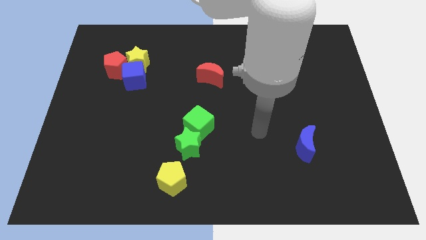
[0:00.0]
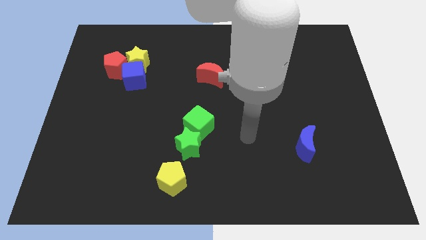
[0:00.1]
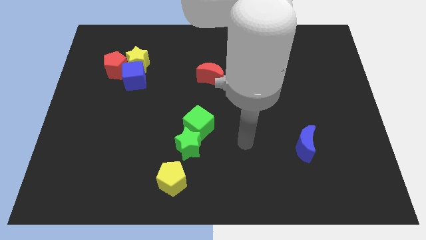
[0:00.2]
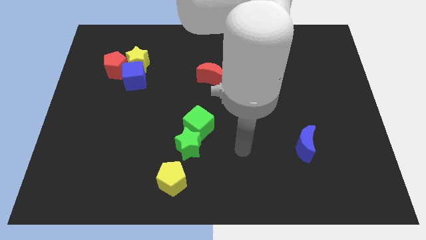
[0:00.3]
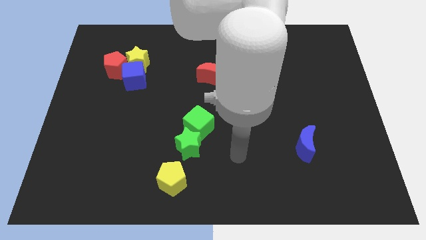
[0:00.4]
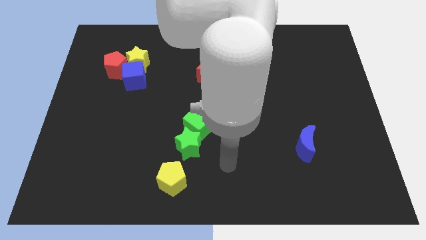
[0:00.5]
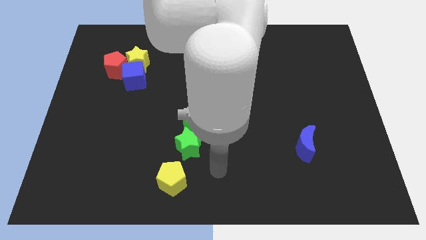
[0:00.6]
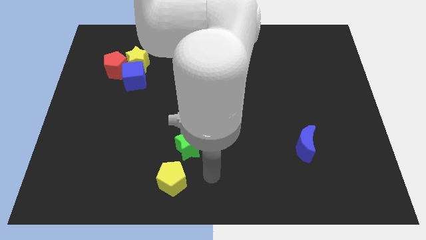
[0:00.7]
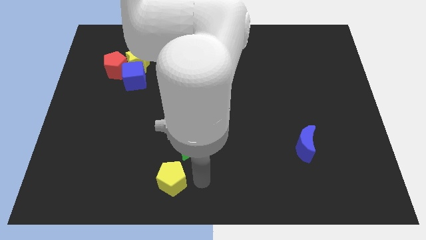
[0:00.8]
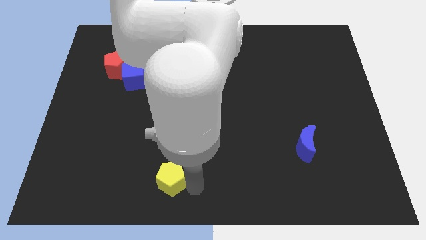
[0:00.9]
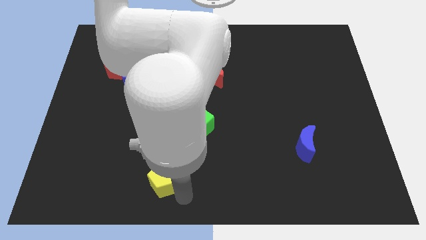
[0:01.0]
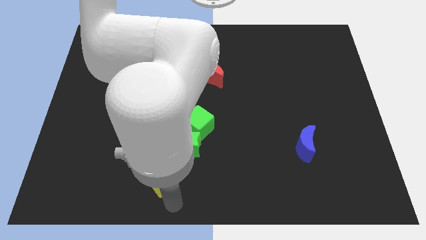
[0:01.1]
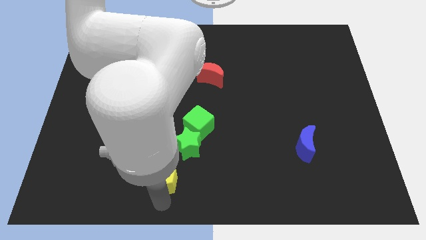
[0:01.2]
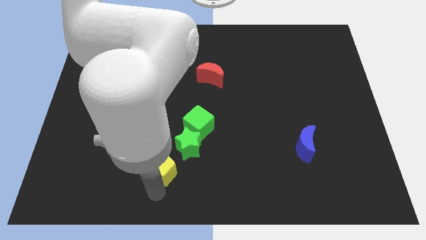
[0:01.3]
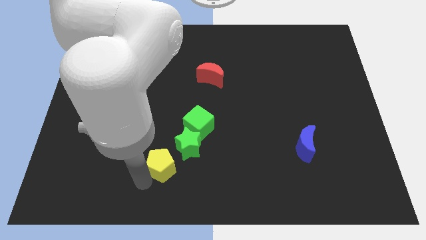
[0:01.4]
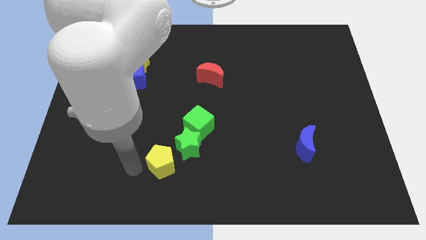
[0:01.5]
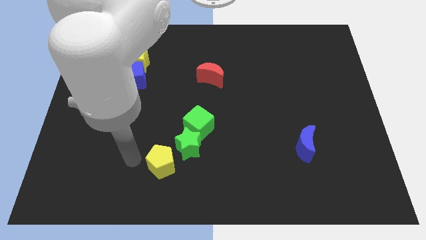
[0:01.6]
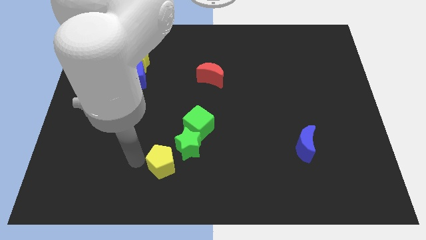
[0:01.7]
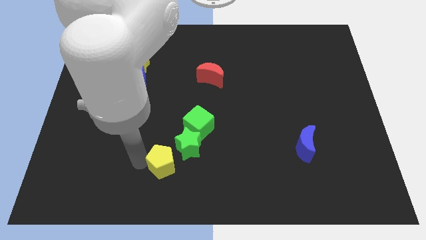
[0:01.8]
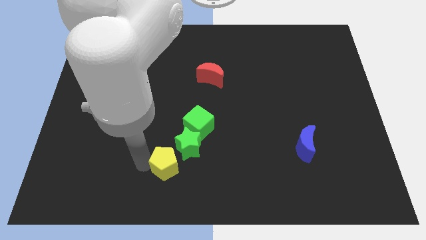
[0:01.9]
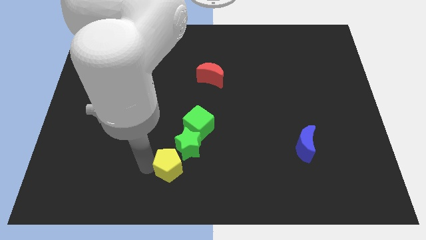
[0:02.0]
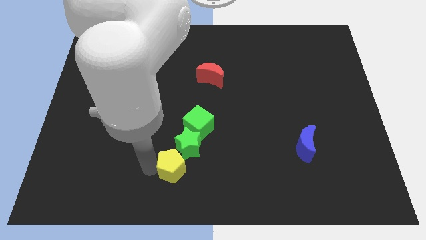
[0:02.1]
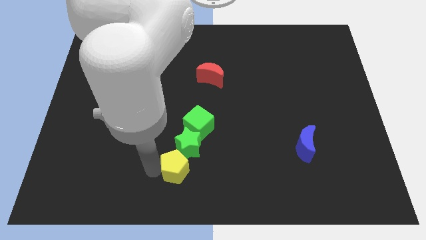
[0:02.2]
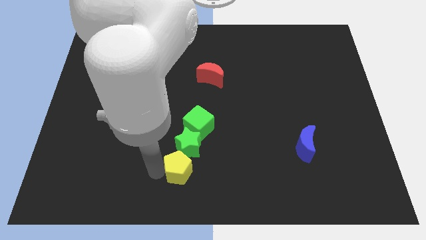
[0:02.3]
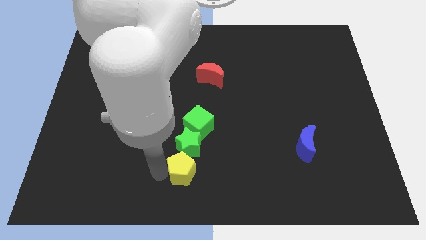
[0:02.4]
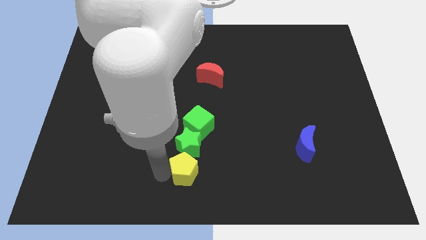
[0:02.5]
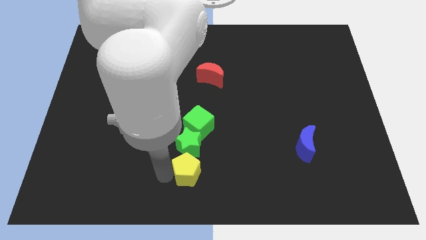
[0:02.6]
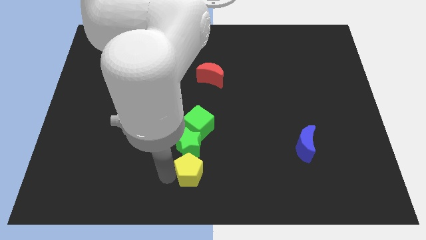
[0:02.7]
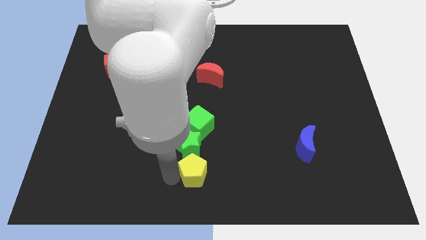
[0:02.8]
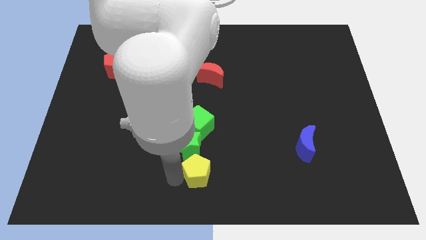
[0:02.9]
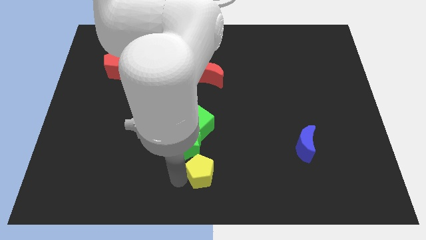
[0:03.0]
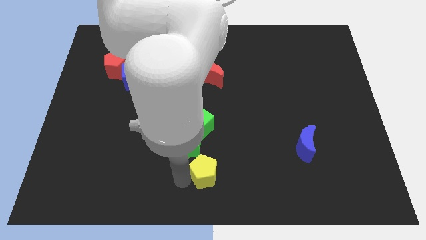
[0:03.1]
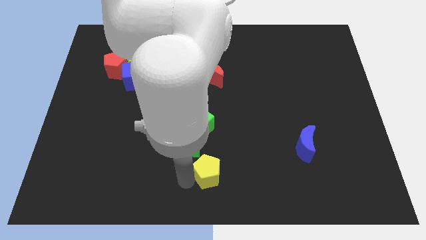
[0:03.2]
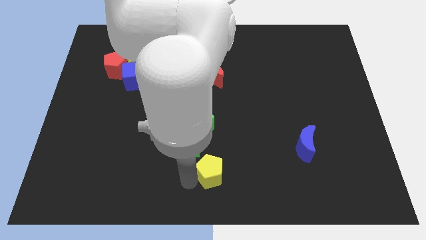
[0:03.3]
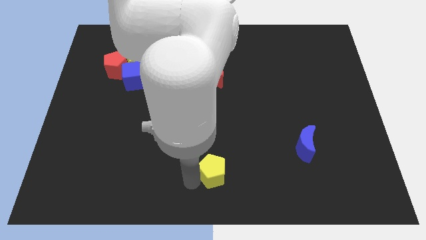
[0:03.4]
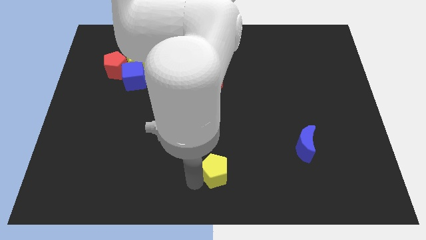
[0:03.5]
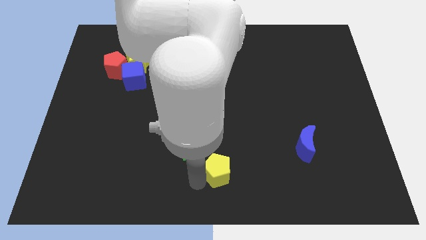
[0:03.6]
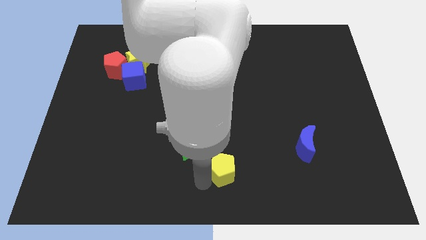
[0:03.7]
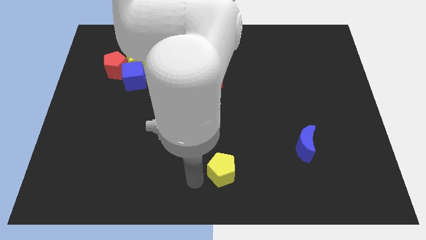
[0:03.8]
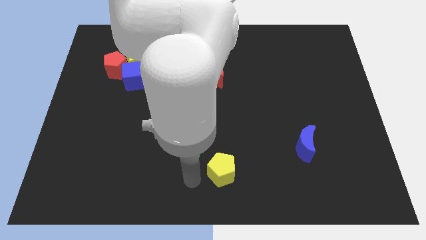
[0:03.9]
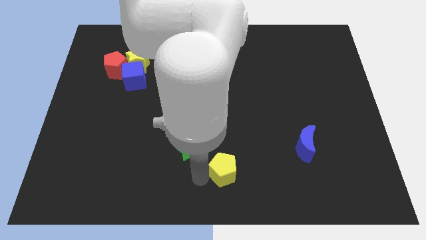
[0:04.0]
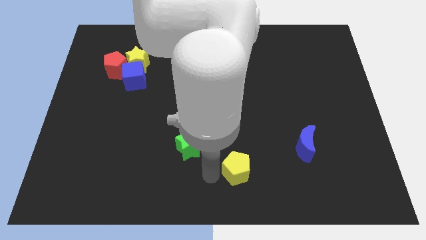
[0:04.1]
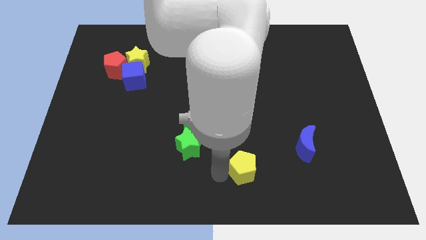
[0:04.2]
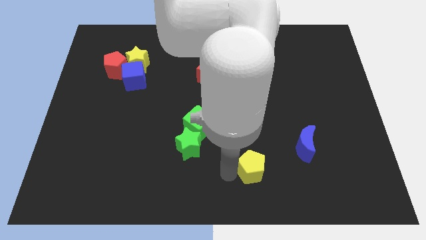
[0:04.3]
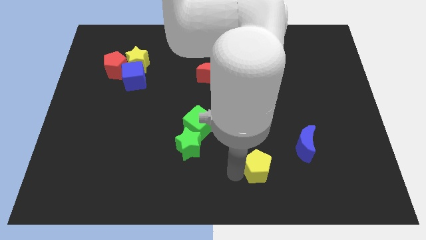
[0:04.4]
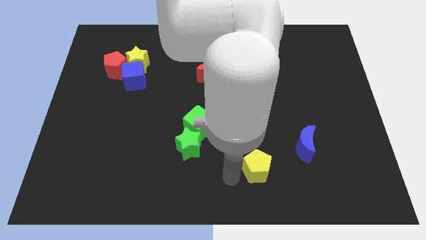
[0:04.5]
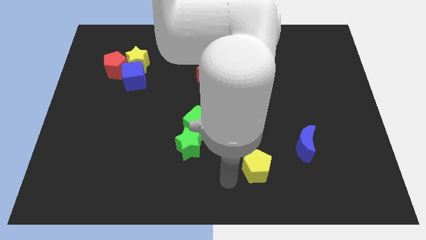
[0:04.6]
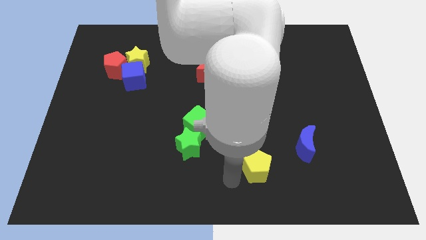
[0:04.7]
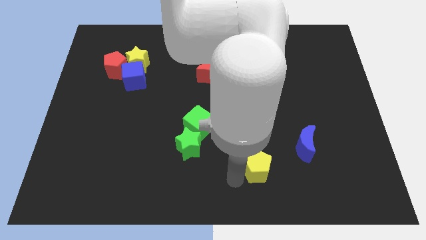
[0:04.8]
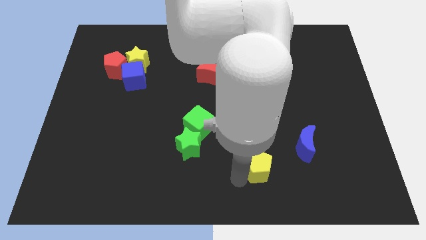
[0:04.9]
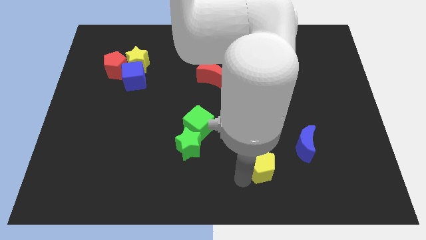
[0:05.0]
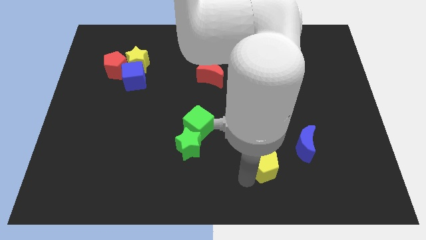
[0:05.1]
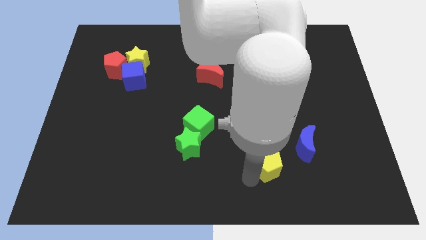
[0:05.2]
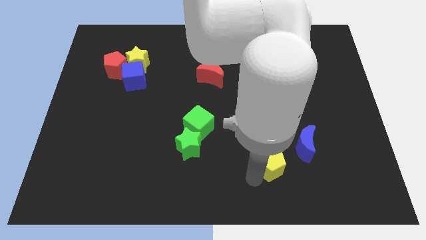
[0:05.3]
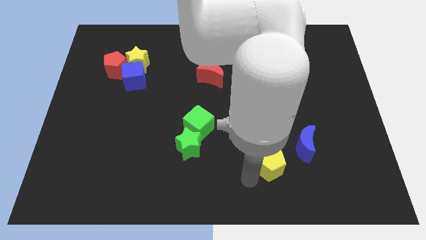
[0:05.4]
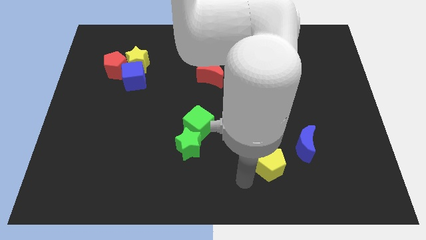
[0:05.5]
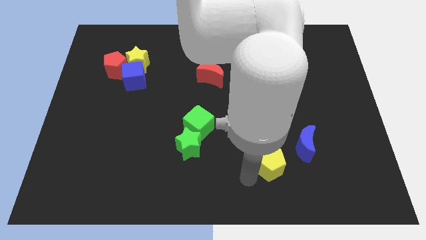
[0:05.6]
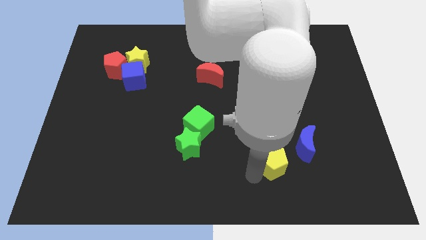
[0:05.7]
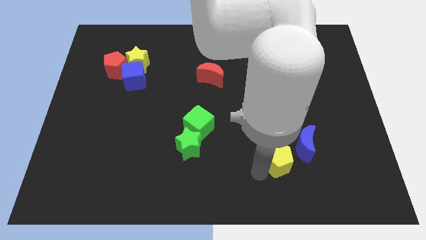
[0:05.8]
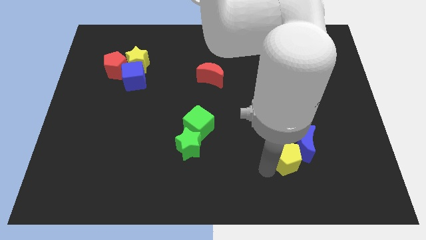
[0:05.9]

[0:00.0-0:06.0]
put the yellow pentagon close to the blue moon

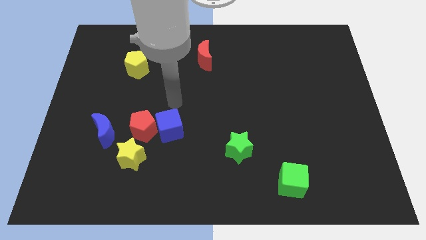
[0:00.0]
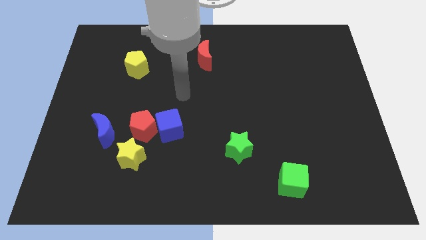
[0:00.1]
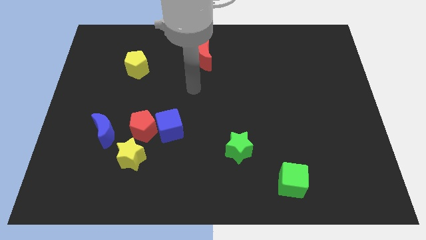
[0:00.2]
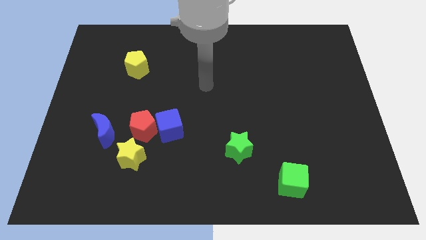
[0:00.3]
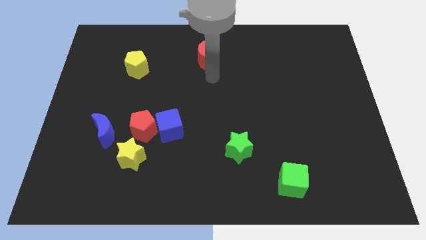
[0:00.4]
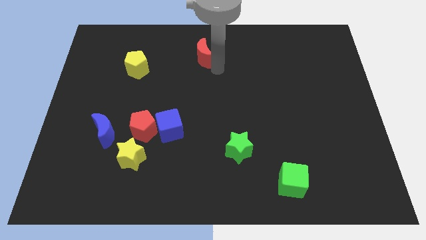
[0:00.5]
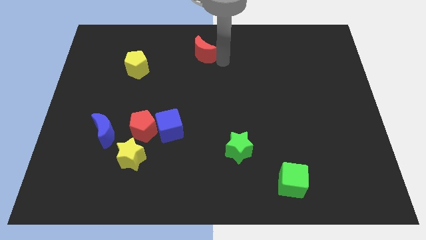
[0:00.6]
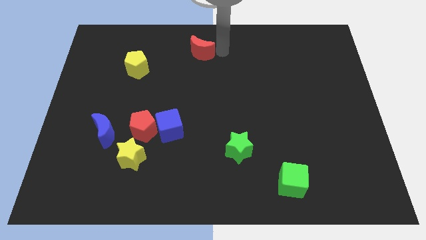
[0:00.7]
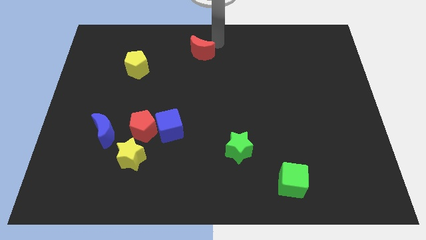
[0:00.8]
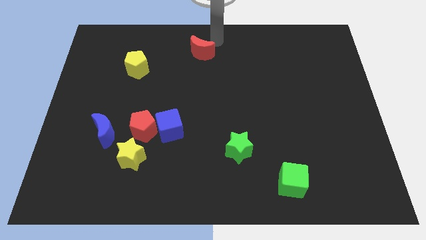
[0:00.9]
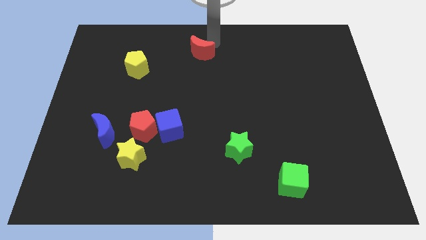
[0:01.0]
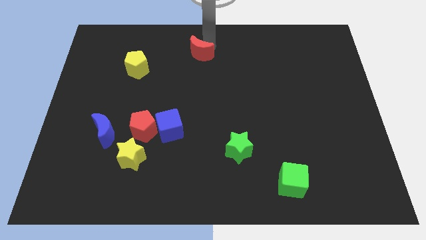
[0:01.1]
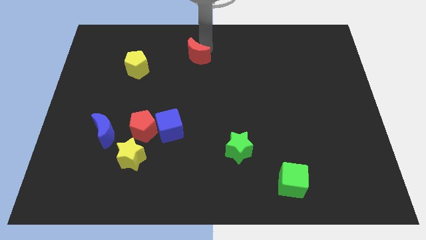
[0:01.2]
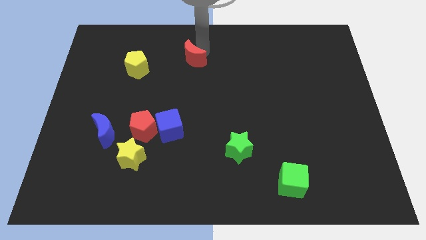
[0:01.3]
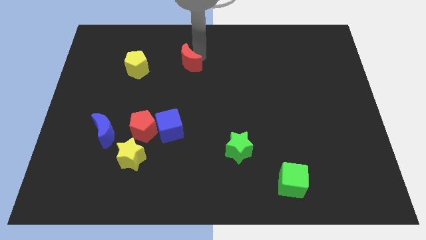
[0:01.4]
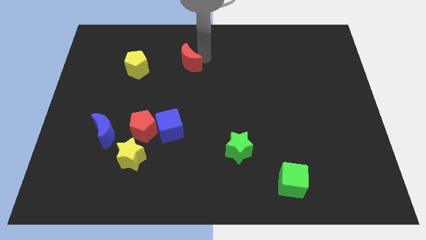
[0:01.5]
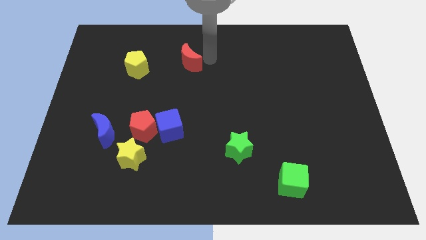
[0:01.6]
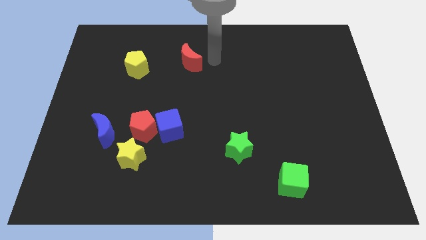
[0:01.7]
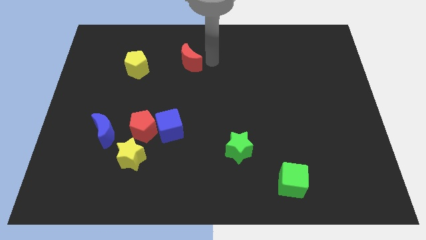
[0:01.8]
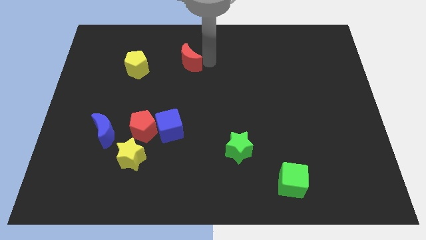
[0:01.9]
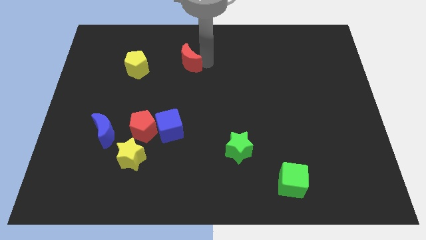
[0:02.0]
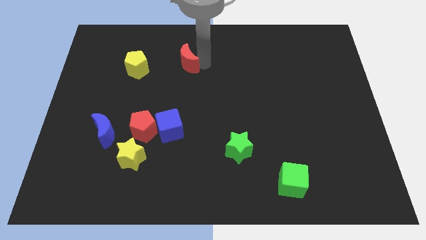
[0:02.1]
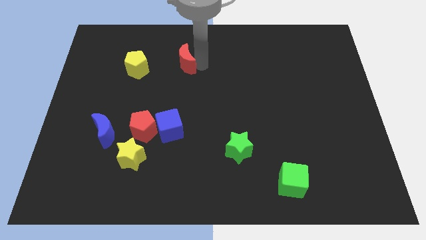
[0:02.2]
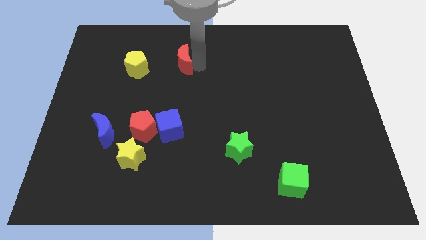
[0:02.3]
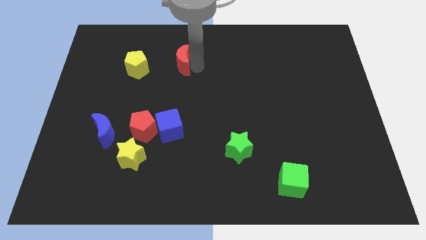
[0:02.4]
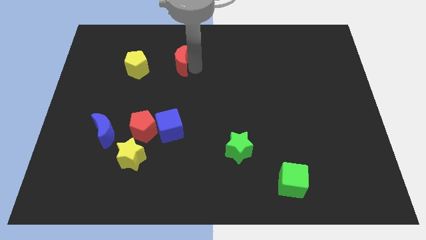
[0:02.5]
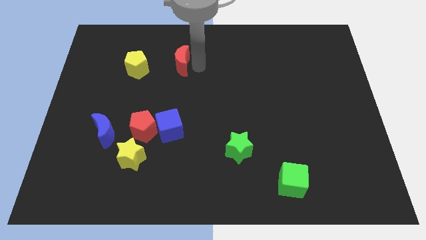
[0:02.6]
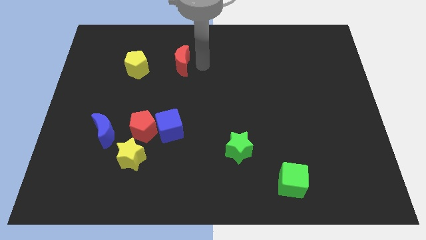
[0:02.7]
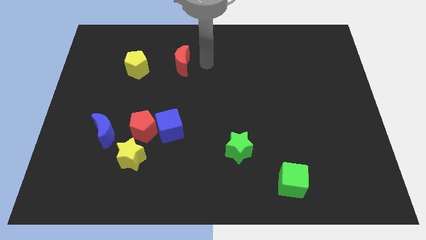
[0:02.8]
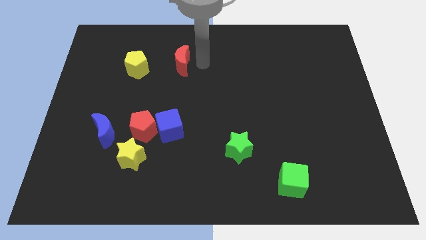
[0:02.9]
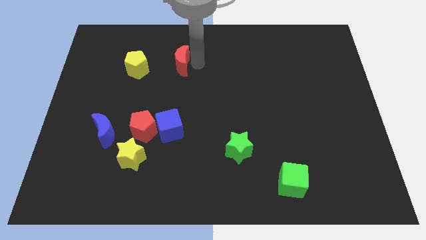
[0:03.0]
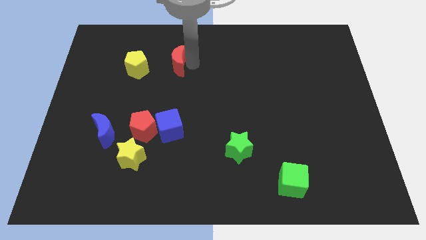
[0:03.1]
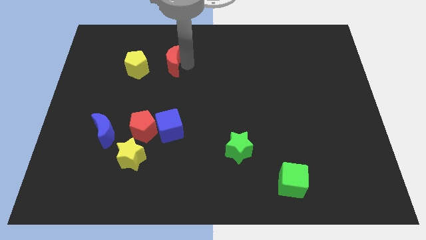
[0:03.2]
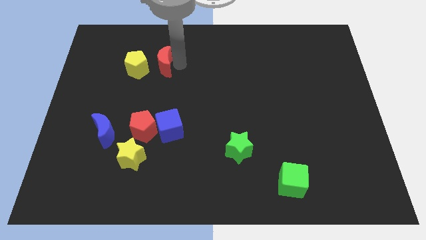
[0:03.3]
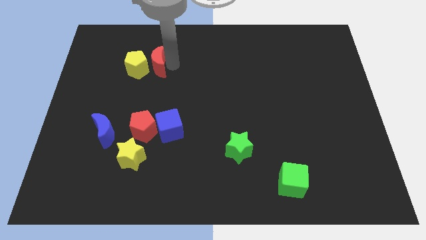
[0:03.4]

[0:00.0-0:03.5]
put the red moon towards the yellow pentagon
